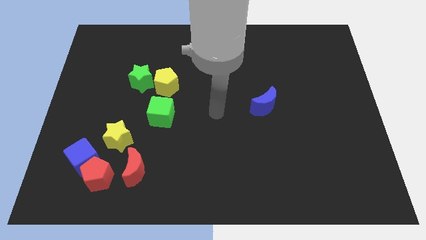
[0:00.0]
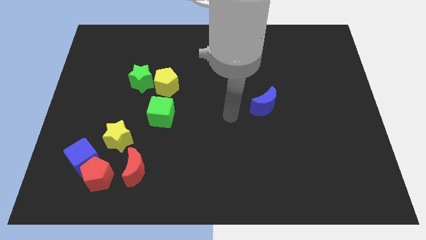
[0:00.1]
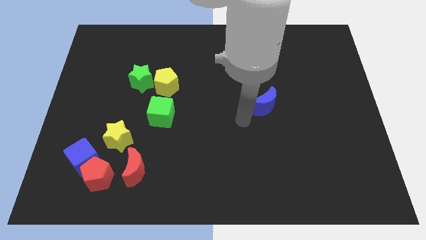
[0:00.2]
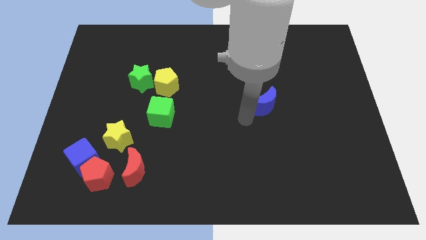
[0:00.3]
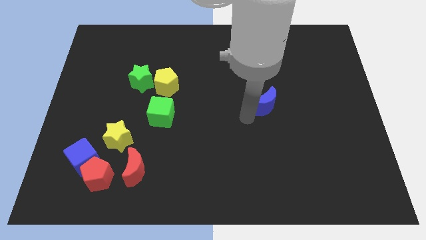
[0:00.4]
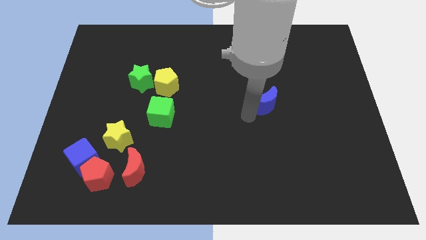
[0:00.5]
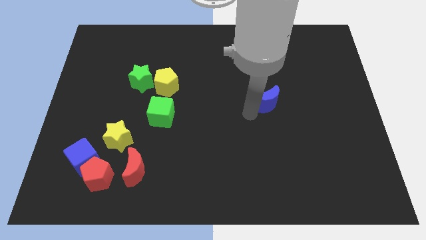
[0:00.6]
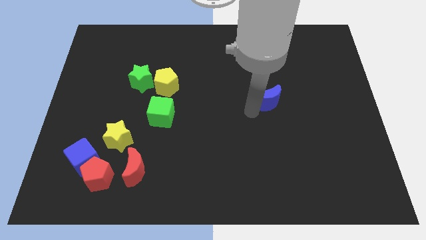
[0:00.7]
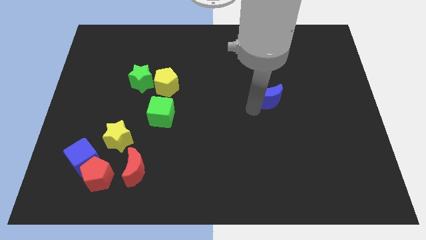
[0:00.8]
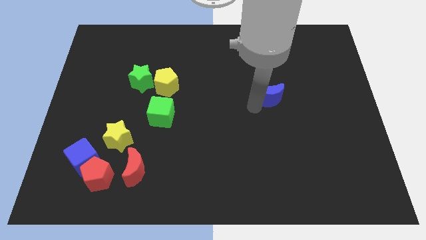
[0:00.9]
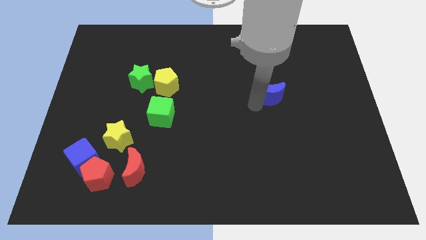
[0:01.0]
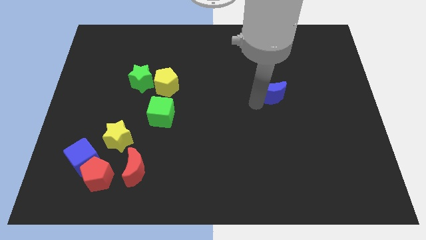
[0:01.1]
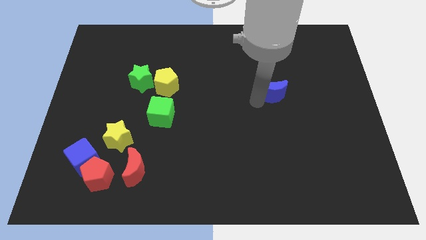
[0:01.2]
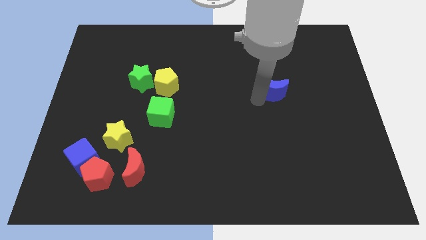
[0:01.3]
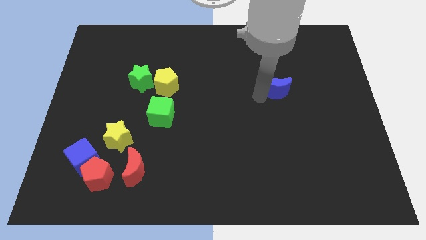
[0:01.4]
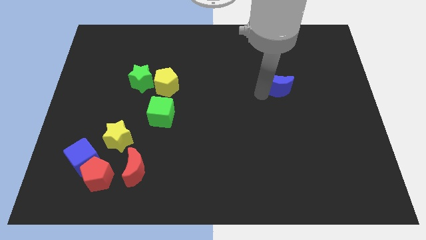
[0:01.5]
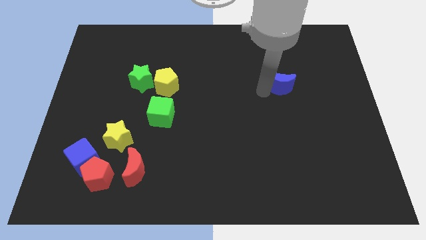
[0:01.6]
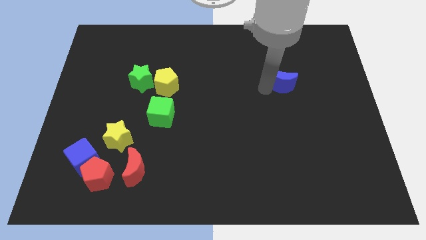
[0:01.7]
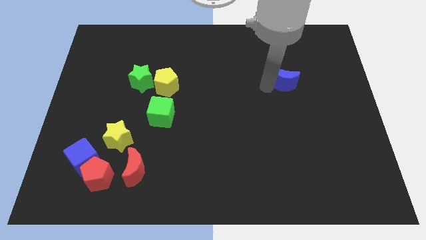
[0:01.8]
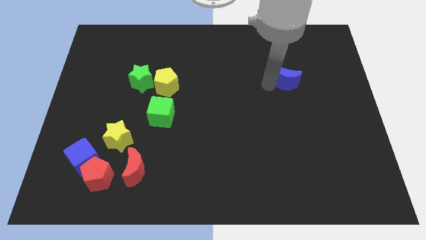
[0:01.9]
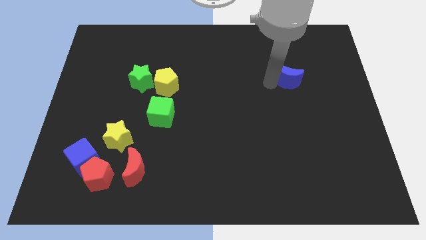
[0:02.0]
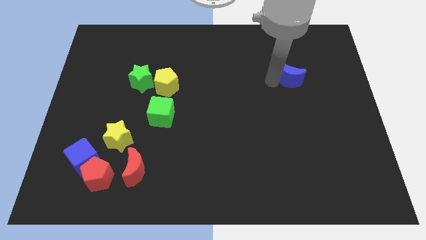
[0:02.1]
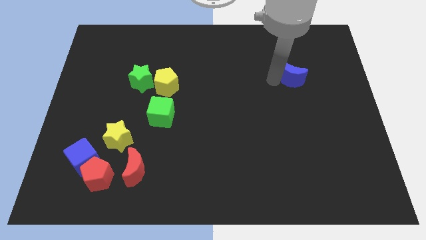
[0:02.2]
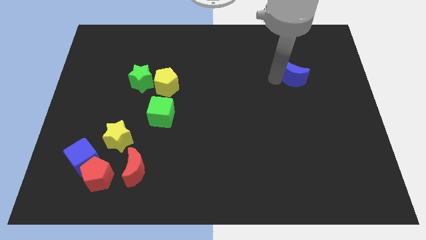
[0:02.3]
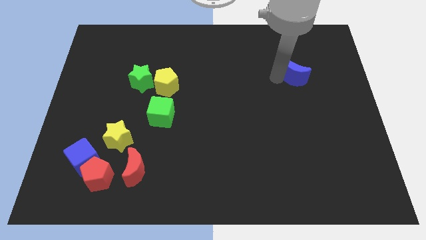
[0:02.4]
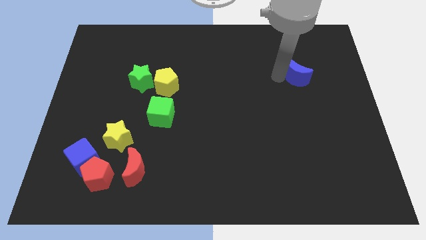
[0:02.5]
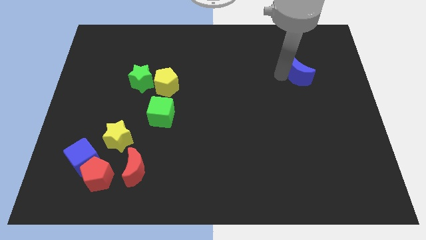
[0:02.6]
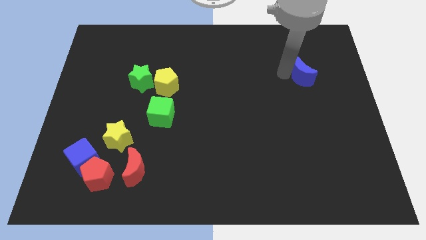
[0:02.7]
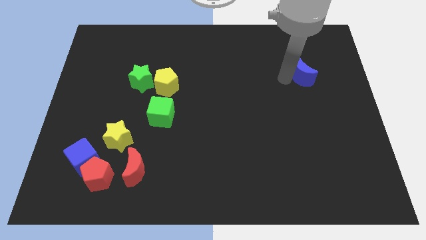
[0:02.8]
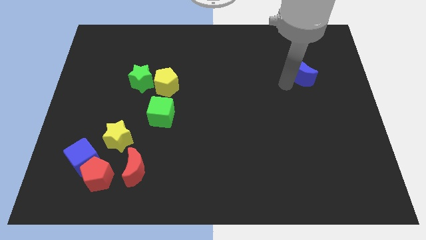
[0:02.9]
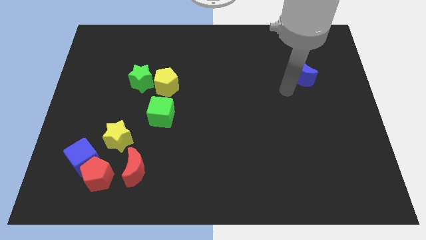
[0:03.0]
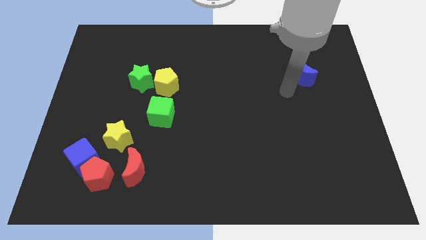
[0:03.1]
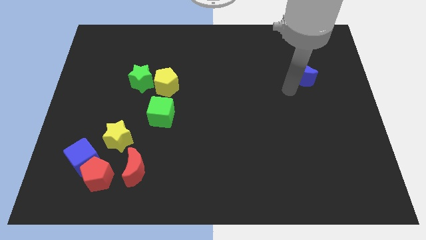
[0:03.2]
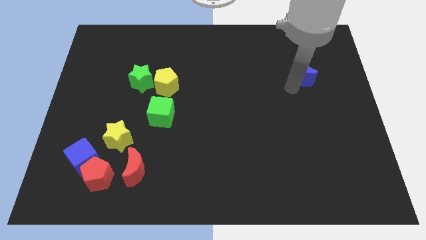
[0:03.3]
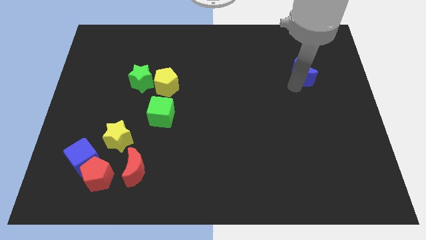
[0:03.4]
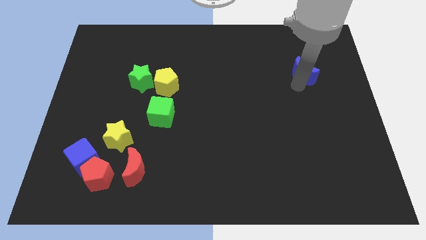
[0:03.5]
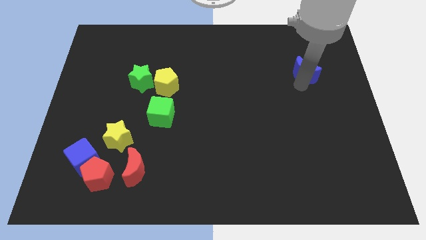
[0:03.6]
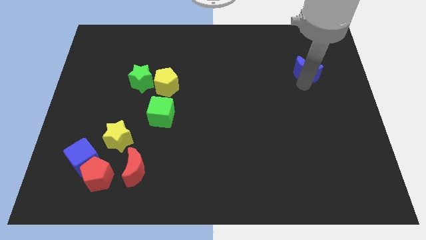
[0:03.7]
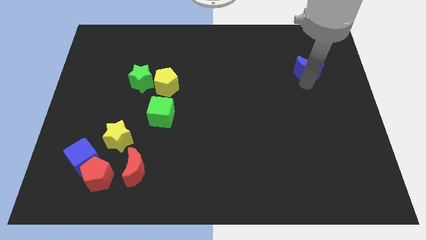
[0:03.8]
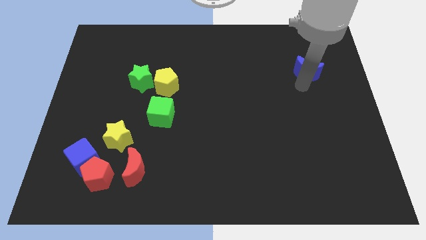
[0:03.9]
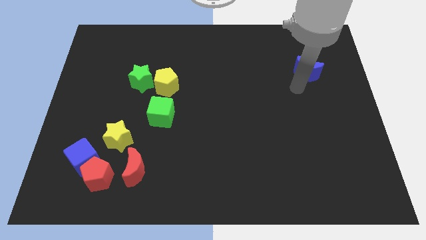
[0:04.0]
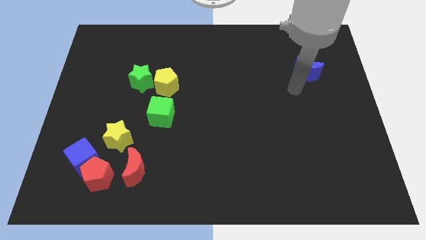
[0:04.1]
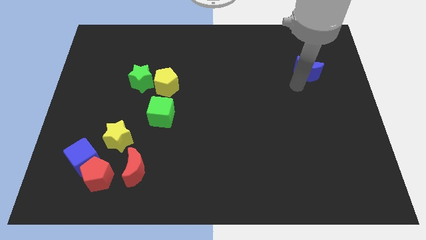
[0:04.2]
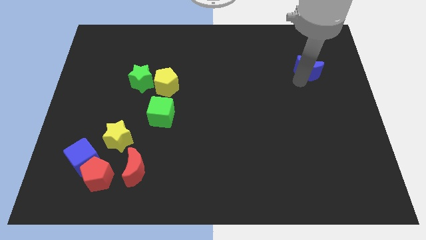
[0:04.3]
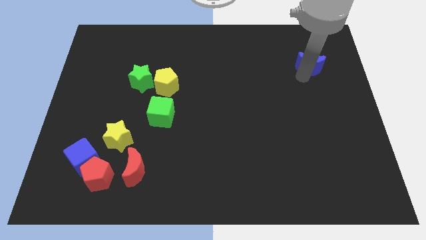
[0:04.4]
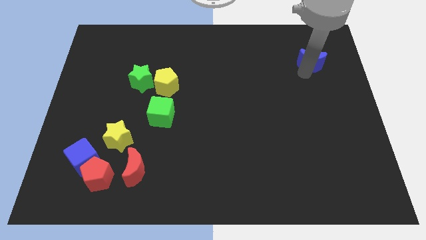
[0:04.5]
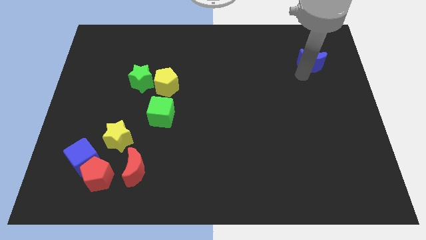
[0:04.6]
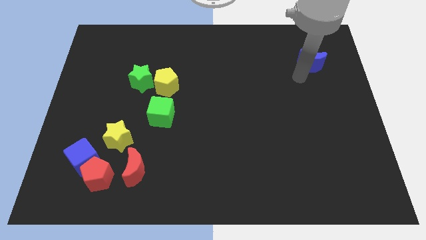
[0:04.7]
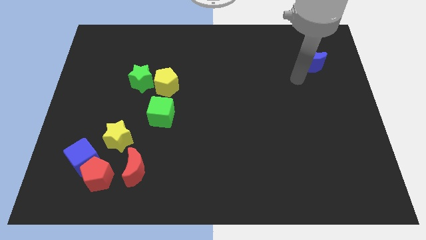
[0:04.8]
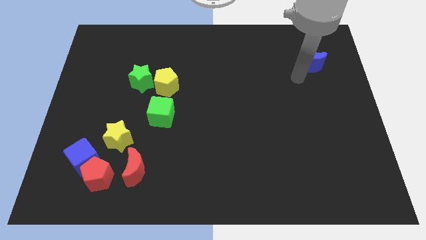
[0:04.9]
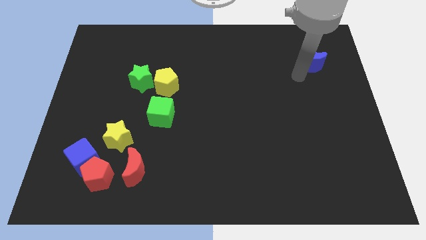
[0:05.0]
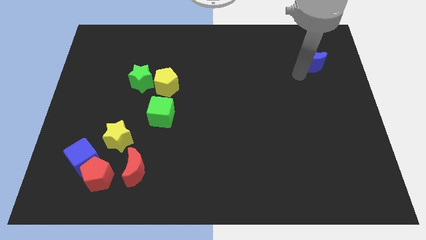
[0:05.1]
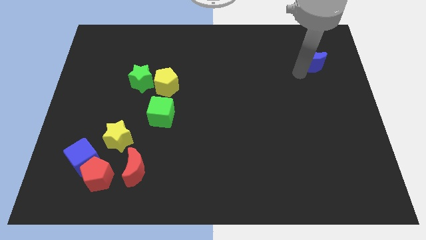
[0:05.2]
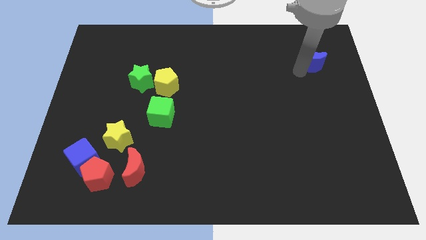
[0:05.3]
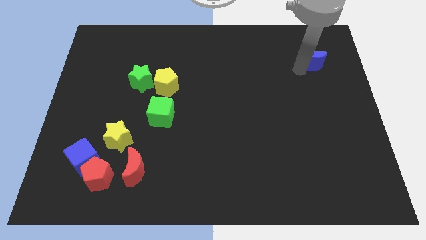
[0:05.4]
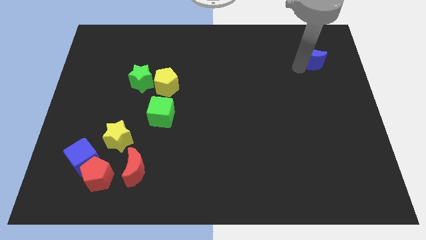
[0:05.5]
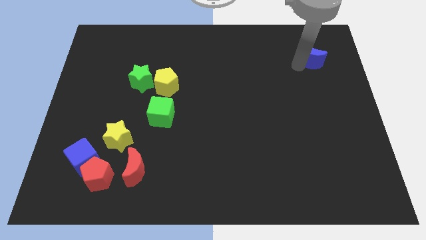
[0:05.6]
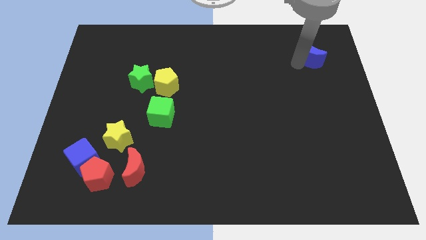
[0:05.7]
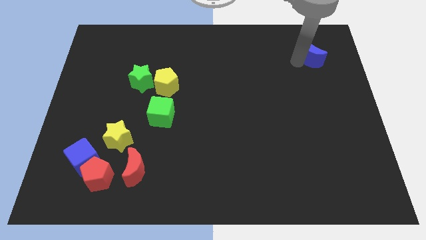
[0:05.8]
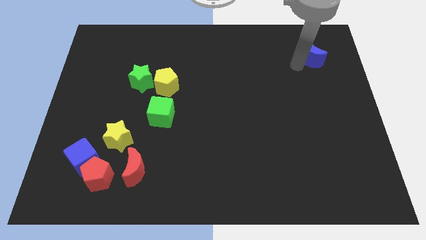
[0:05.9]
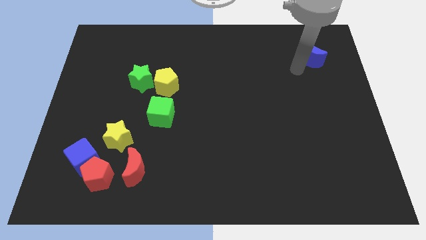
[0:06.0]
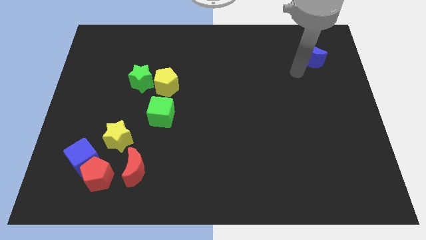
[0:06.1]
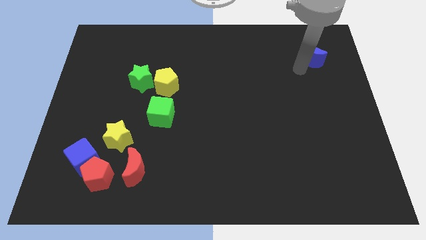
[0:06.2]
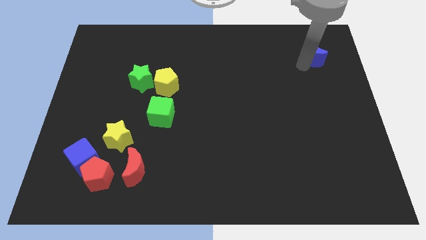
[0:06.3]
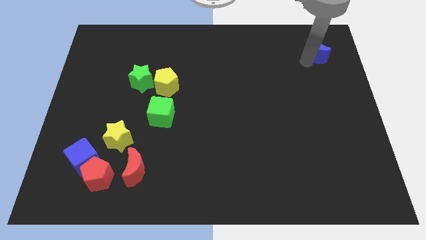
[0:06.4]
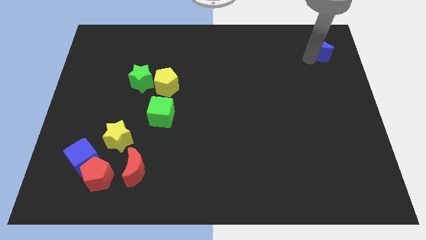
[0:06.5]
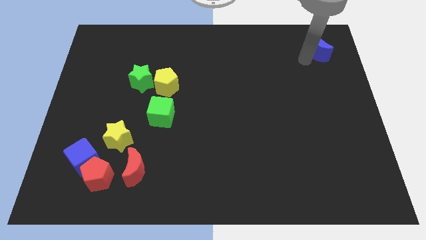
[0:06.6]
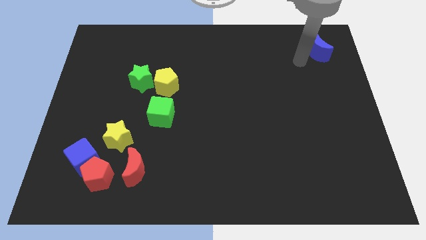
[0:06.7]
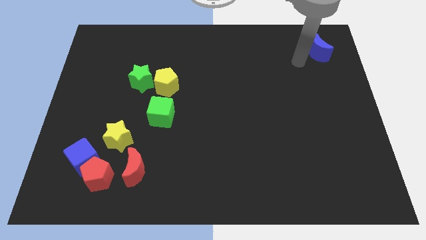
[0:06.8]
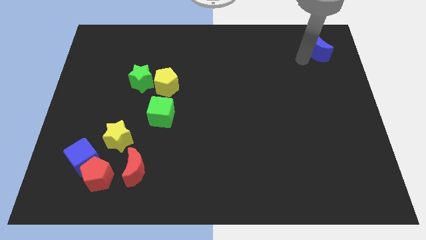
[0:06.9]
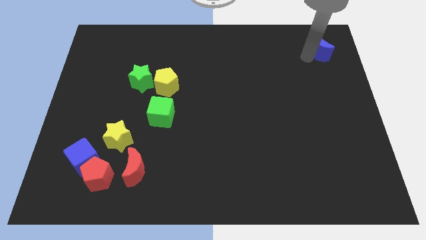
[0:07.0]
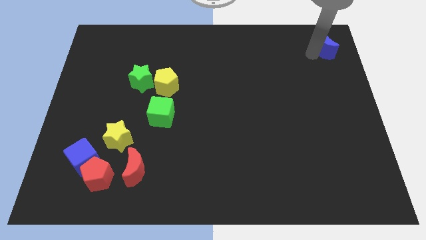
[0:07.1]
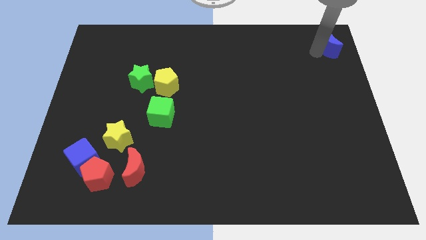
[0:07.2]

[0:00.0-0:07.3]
put the blue moon to the upper right corner
